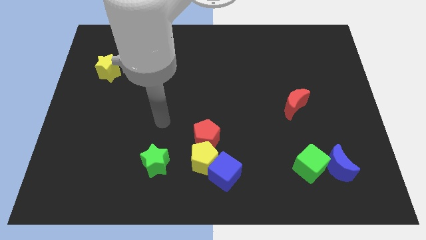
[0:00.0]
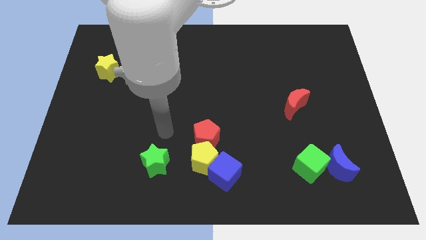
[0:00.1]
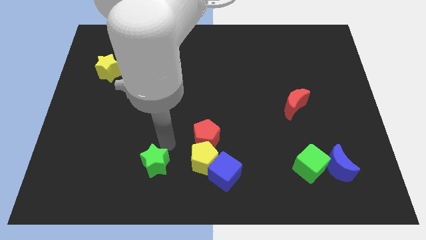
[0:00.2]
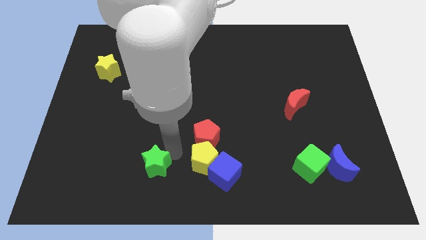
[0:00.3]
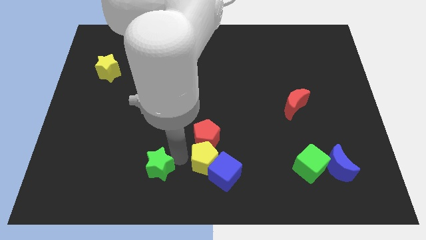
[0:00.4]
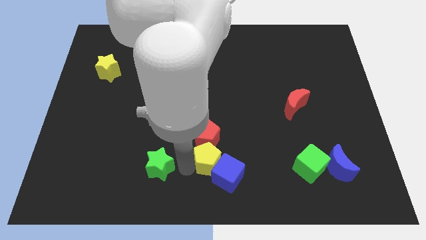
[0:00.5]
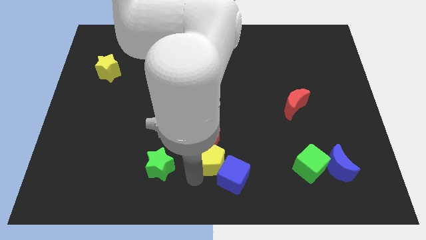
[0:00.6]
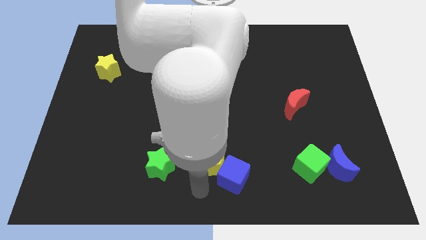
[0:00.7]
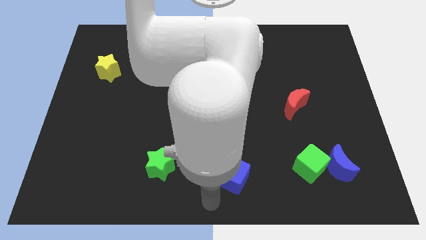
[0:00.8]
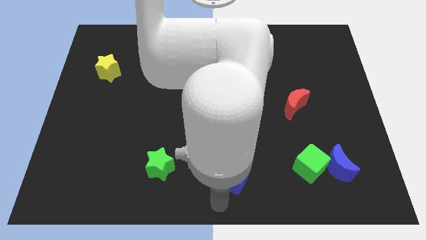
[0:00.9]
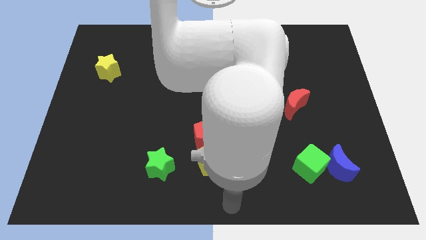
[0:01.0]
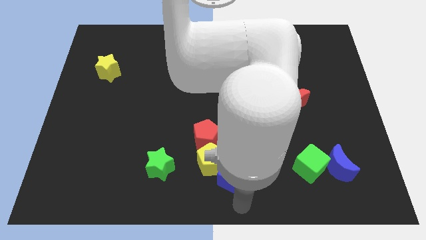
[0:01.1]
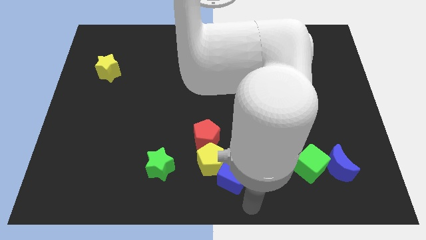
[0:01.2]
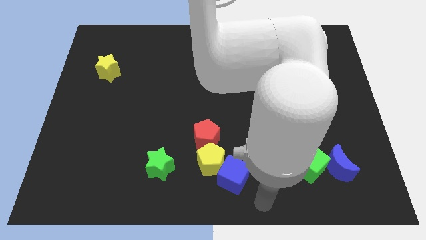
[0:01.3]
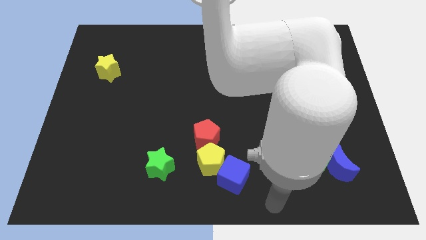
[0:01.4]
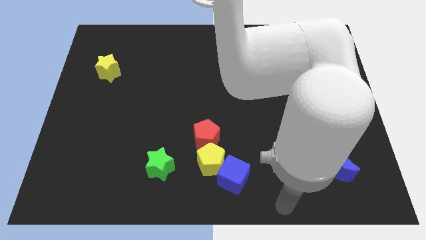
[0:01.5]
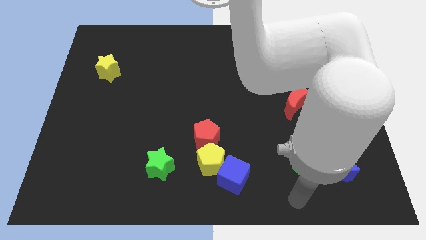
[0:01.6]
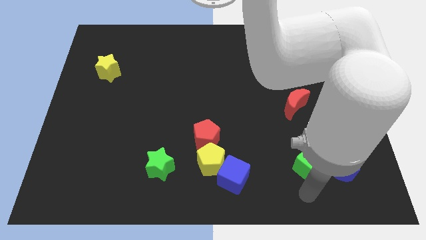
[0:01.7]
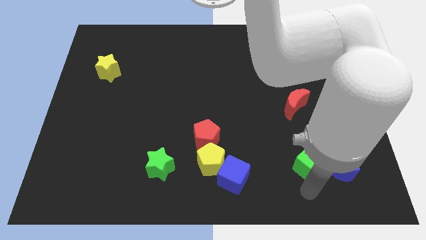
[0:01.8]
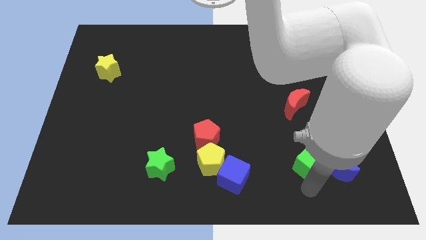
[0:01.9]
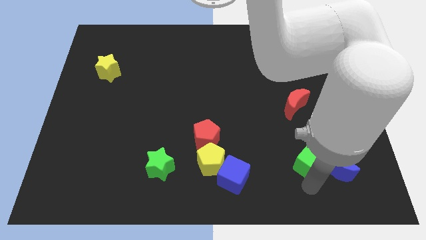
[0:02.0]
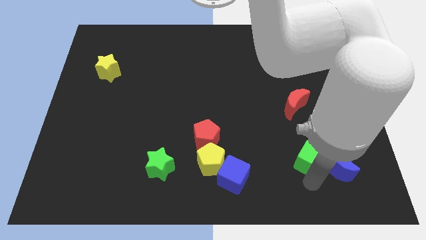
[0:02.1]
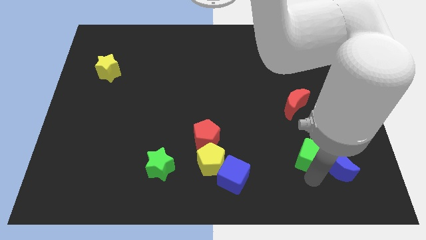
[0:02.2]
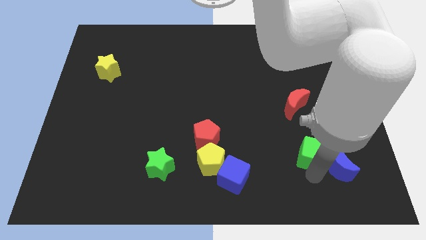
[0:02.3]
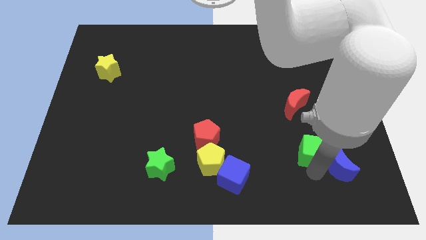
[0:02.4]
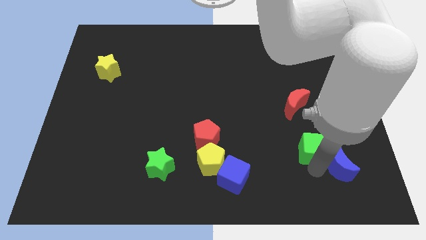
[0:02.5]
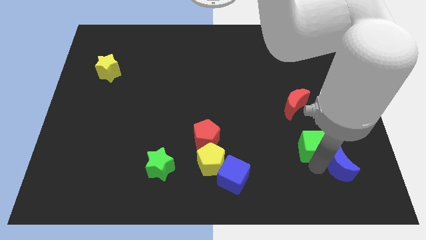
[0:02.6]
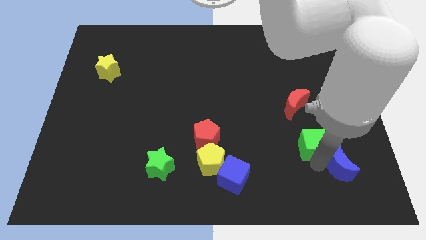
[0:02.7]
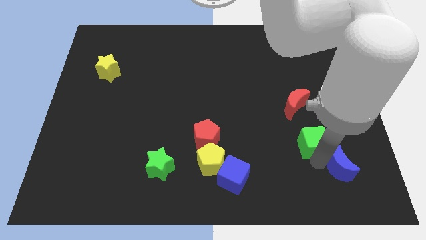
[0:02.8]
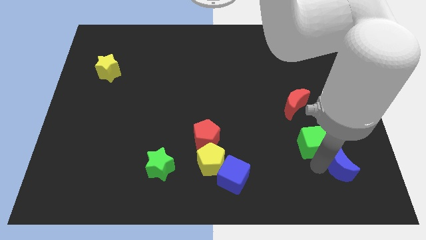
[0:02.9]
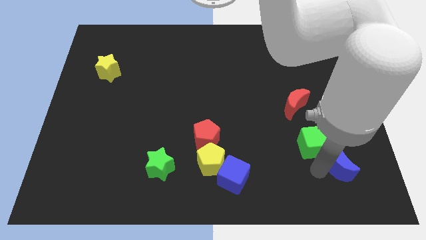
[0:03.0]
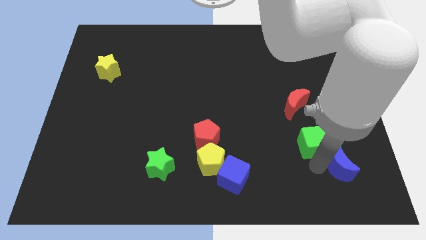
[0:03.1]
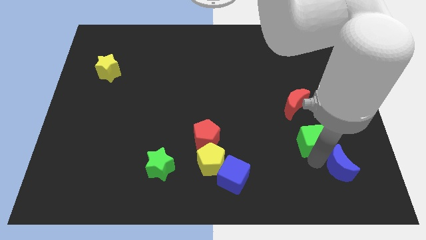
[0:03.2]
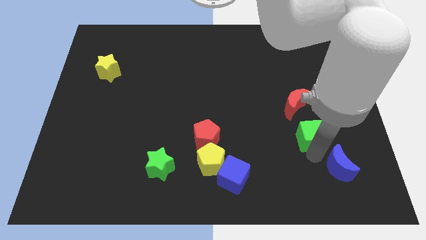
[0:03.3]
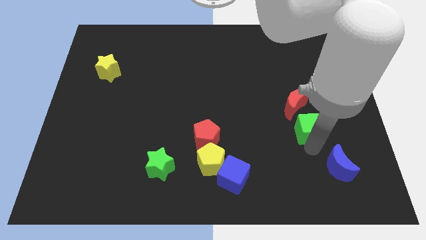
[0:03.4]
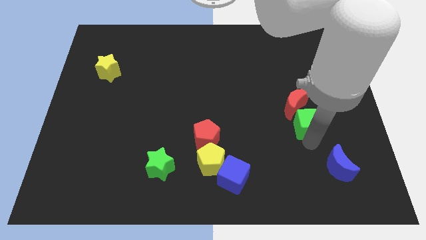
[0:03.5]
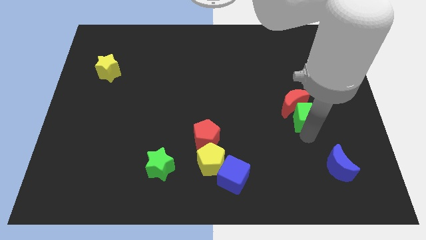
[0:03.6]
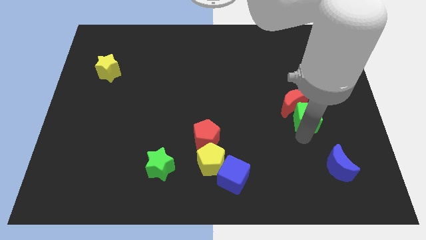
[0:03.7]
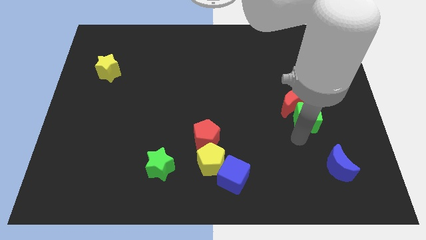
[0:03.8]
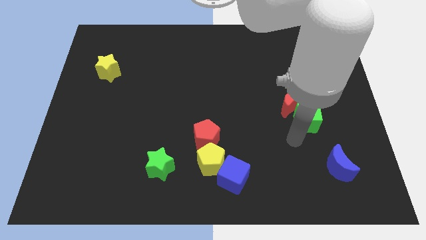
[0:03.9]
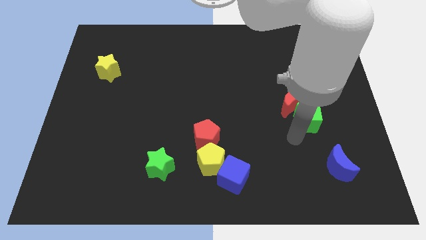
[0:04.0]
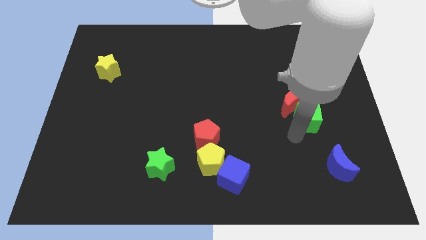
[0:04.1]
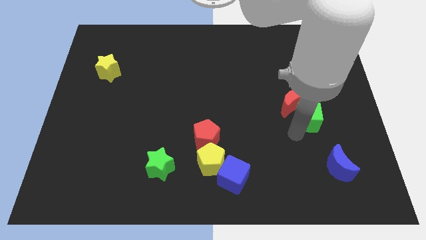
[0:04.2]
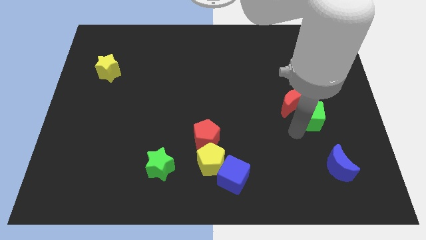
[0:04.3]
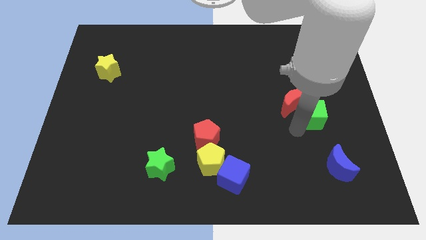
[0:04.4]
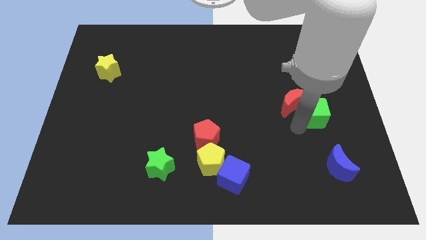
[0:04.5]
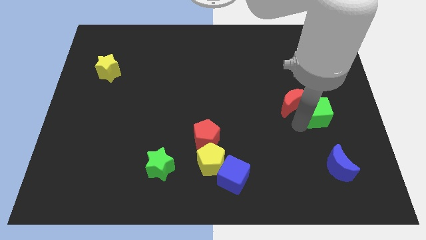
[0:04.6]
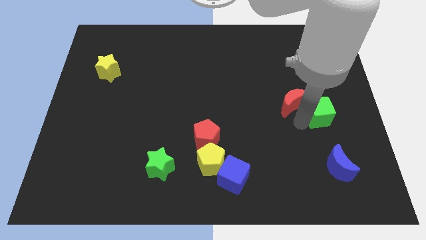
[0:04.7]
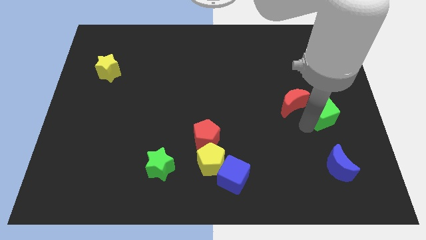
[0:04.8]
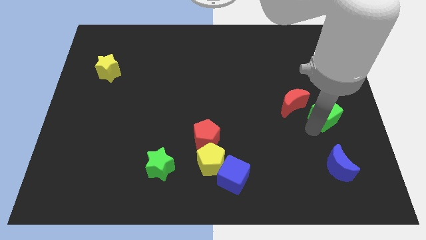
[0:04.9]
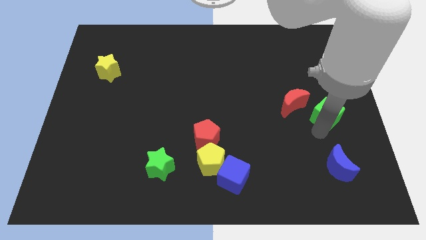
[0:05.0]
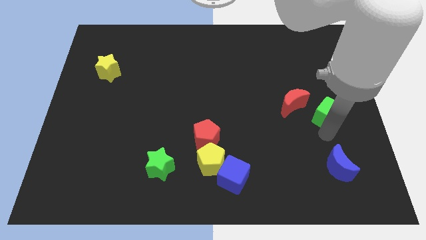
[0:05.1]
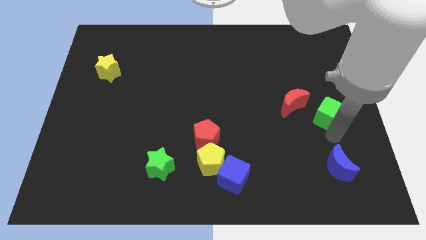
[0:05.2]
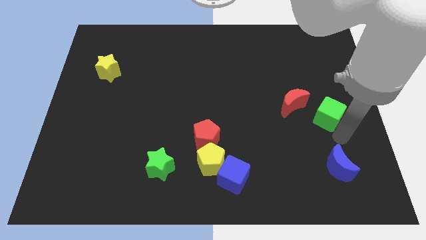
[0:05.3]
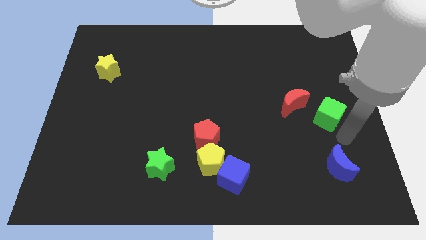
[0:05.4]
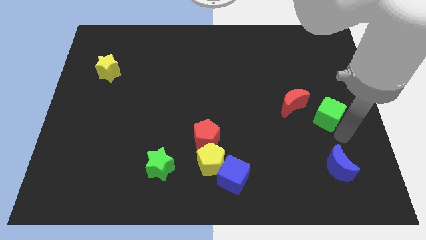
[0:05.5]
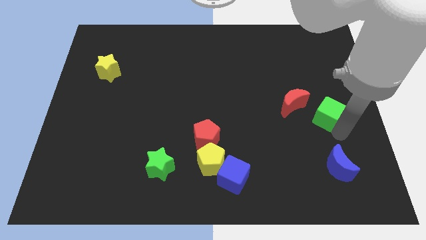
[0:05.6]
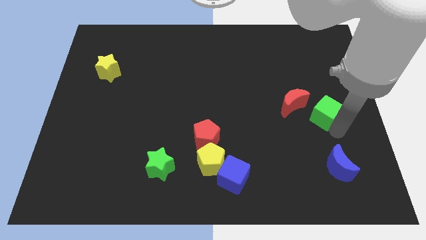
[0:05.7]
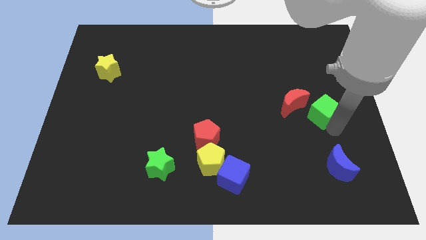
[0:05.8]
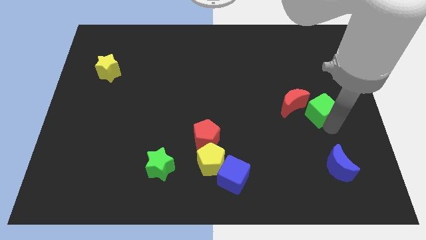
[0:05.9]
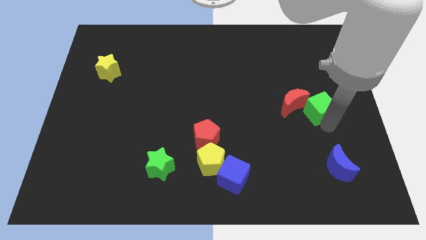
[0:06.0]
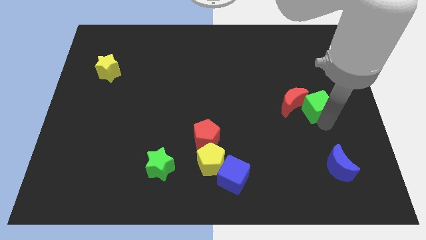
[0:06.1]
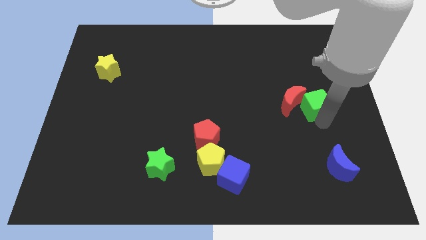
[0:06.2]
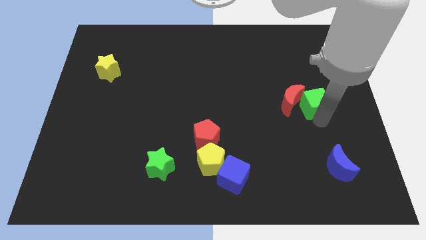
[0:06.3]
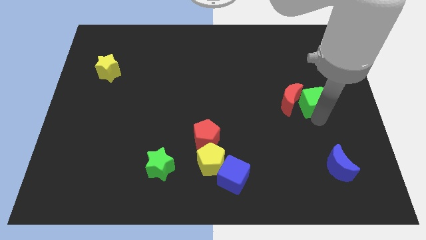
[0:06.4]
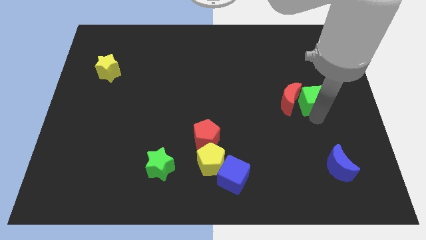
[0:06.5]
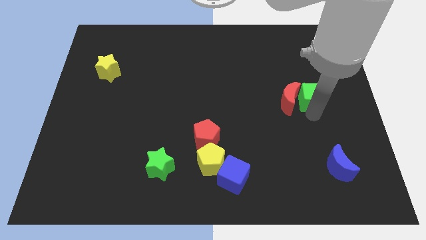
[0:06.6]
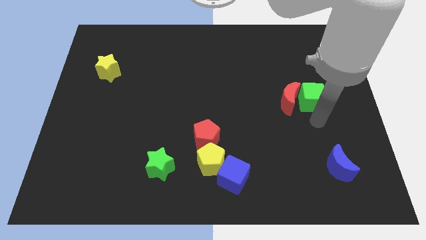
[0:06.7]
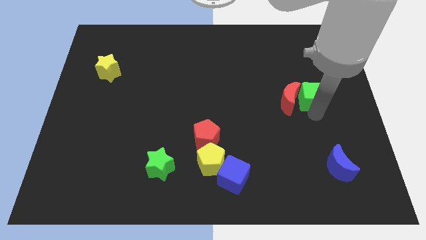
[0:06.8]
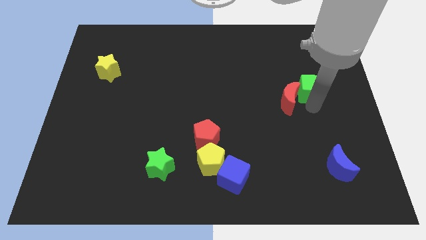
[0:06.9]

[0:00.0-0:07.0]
push the green cube up

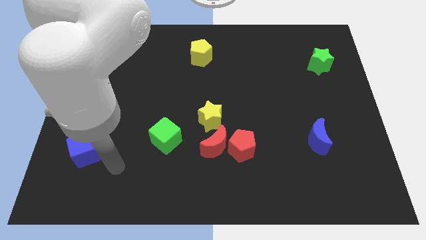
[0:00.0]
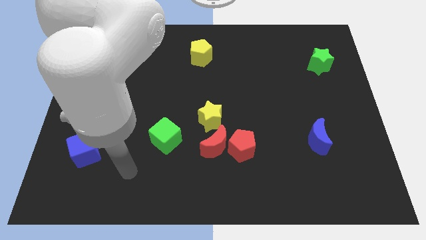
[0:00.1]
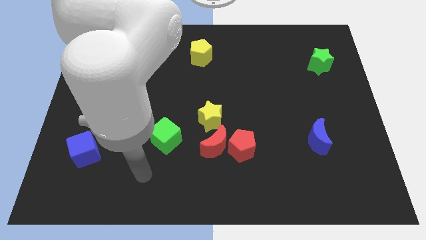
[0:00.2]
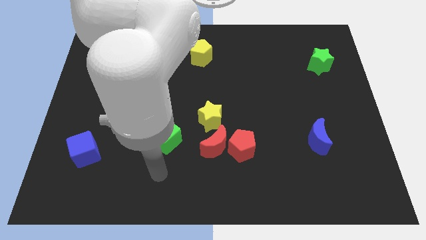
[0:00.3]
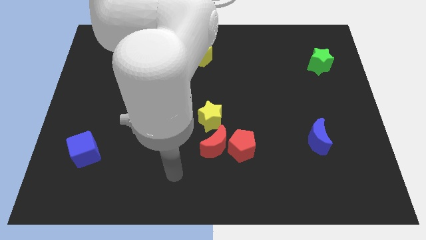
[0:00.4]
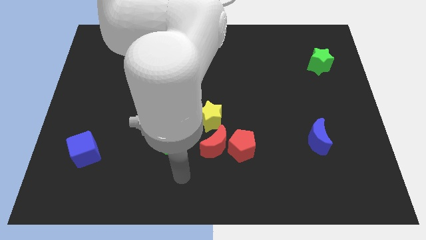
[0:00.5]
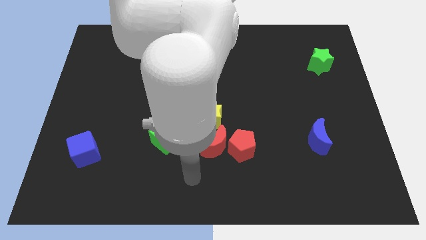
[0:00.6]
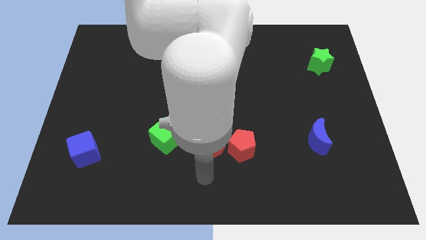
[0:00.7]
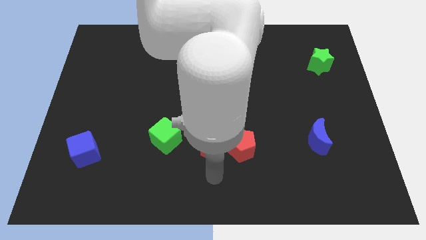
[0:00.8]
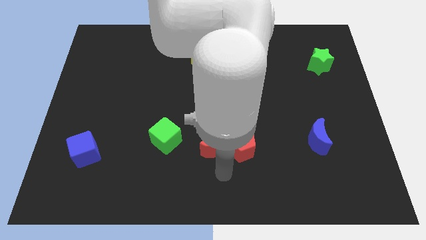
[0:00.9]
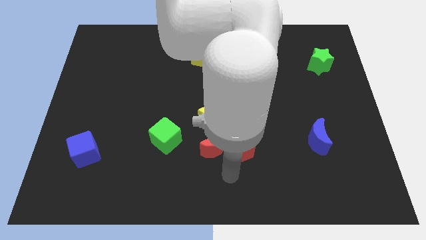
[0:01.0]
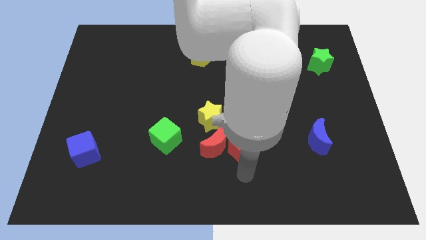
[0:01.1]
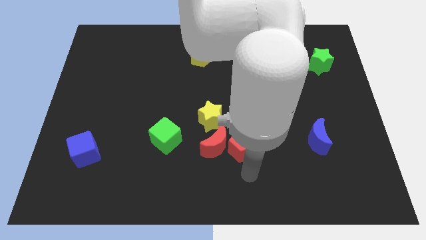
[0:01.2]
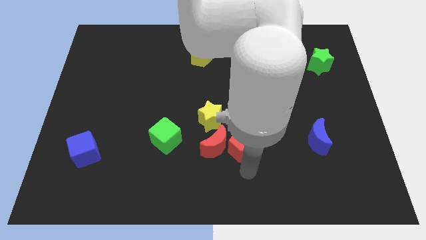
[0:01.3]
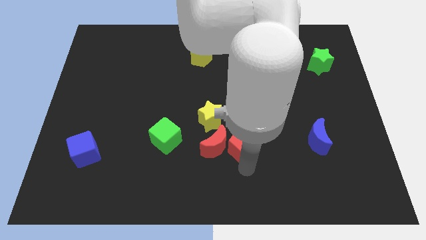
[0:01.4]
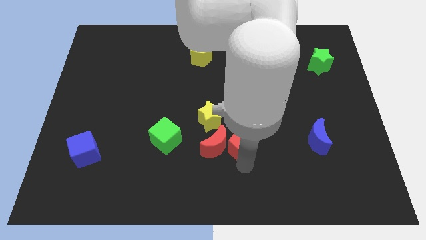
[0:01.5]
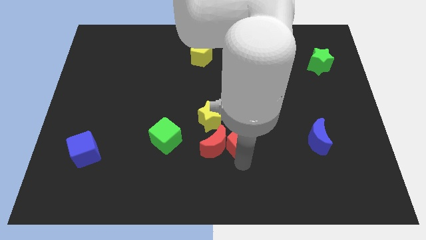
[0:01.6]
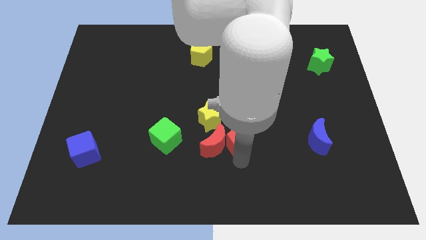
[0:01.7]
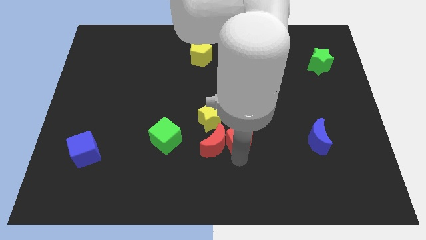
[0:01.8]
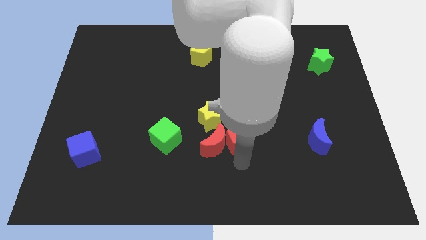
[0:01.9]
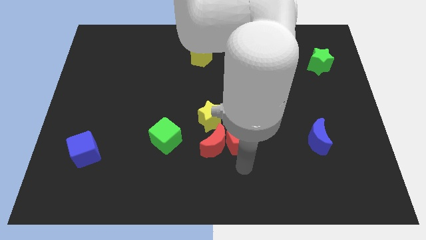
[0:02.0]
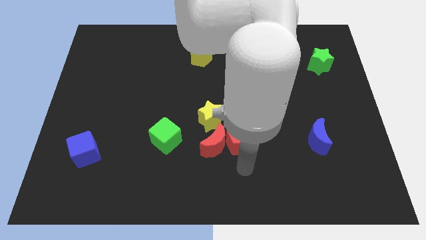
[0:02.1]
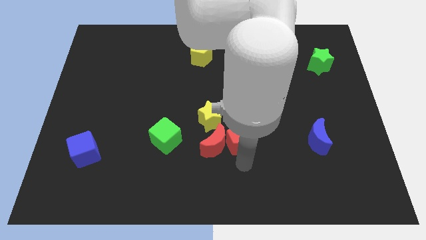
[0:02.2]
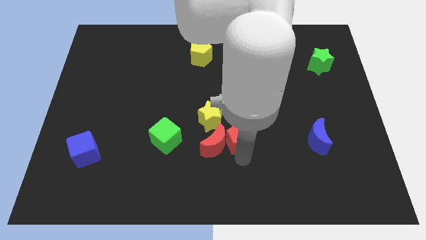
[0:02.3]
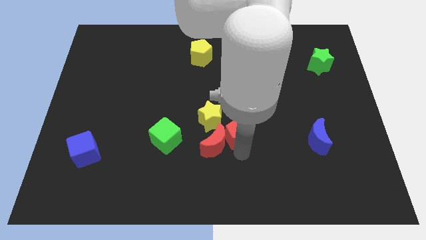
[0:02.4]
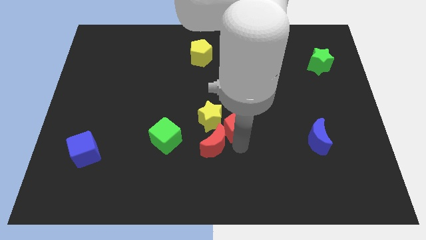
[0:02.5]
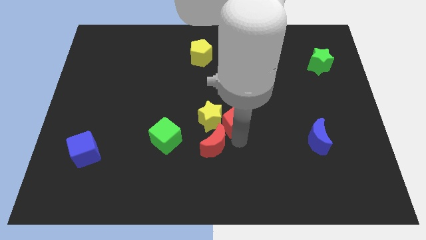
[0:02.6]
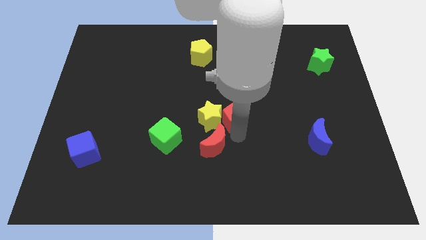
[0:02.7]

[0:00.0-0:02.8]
slightly slide the red pentagon up
